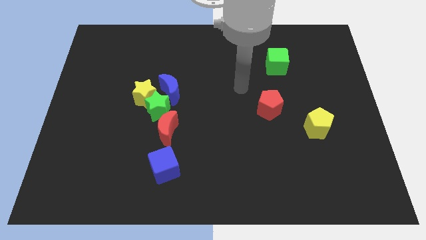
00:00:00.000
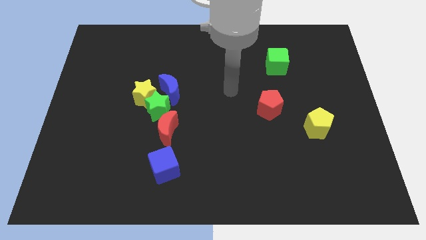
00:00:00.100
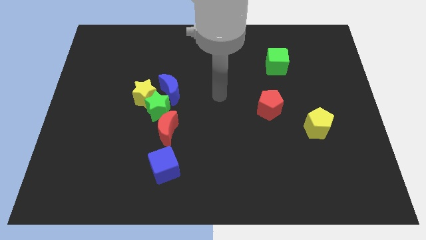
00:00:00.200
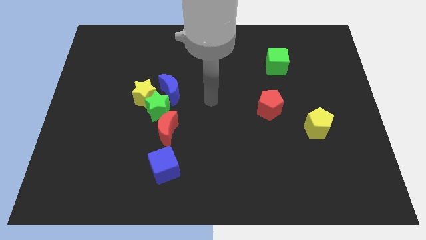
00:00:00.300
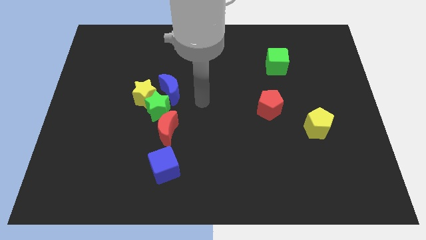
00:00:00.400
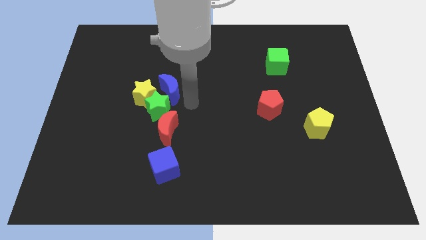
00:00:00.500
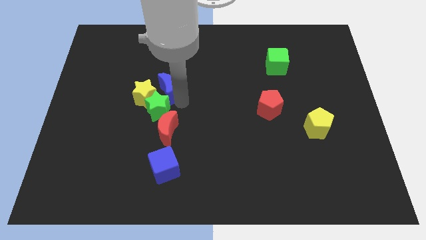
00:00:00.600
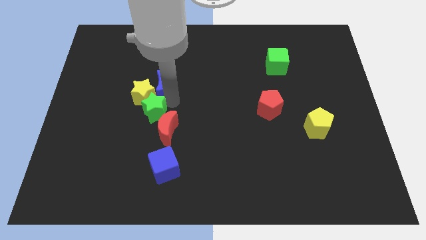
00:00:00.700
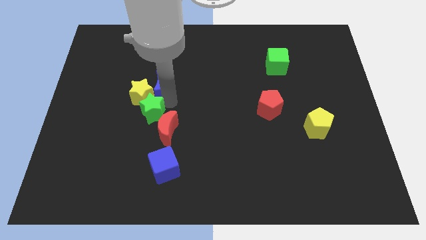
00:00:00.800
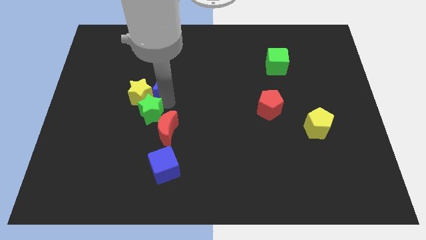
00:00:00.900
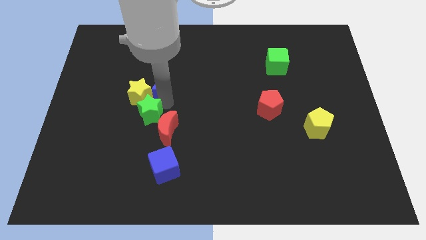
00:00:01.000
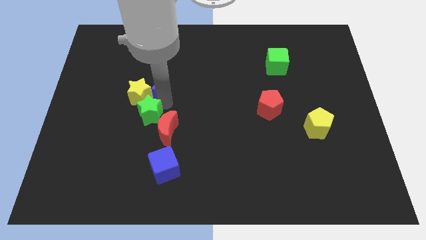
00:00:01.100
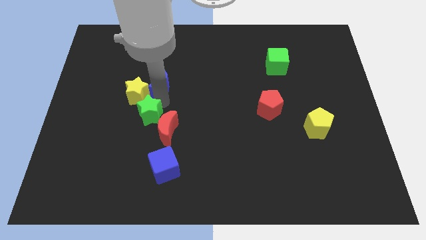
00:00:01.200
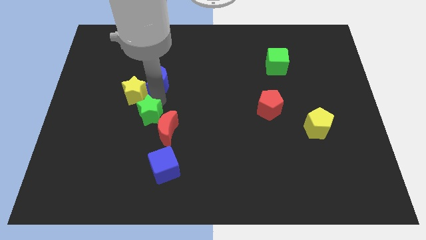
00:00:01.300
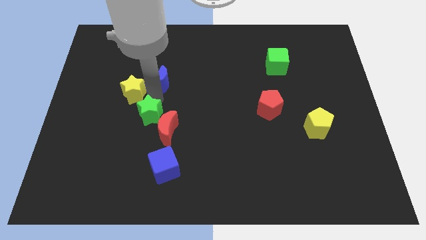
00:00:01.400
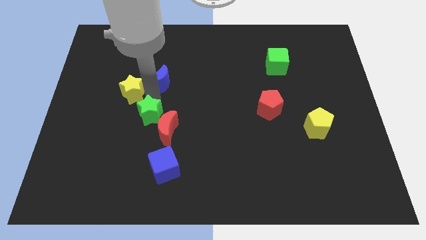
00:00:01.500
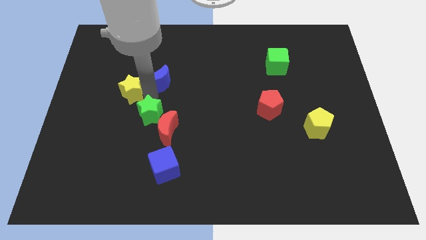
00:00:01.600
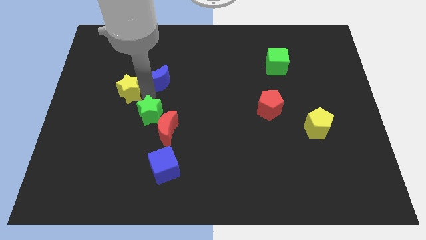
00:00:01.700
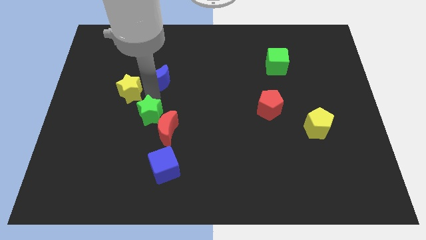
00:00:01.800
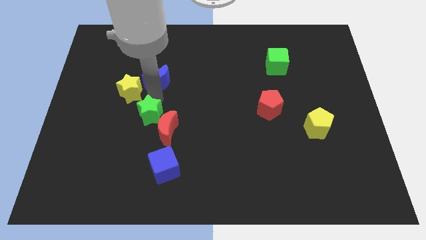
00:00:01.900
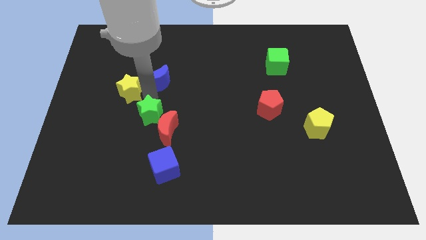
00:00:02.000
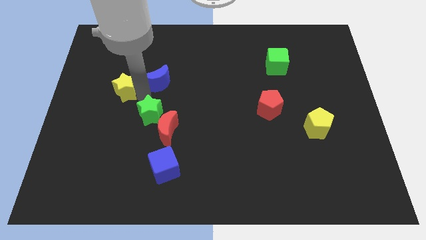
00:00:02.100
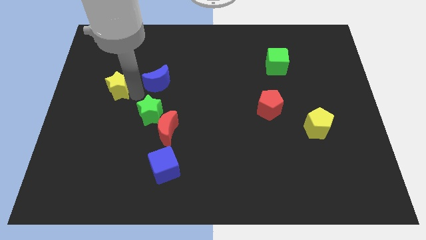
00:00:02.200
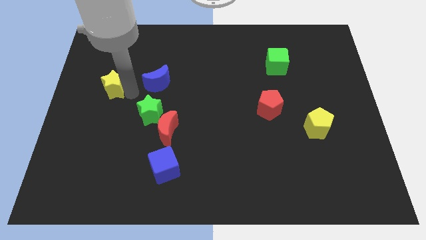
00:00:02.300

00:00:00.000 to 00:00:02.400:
move the yellow star away from the green star and blue moon

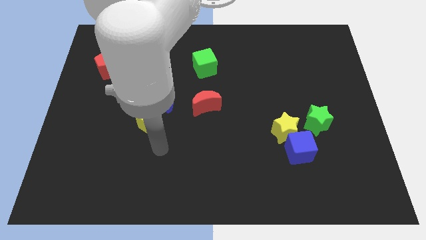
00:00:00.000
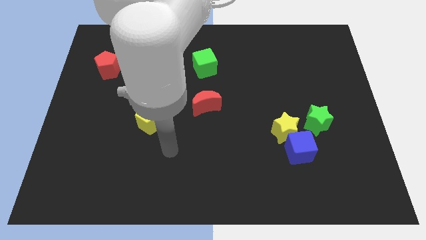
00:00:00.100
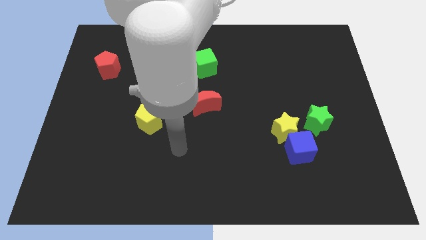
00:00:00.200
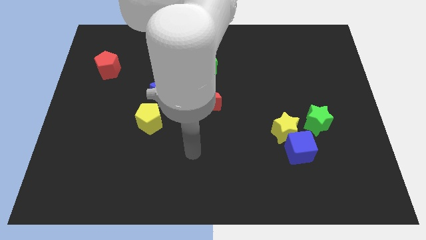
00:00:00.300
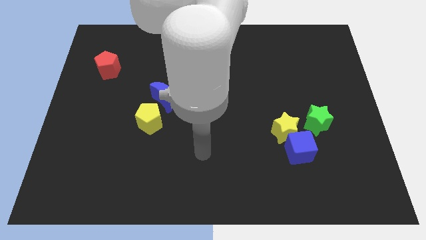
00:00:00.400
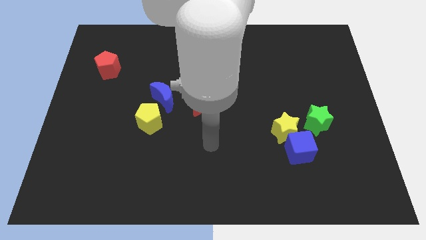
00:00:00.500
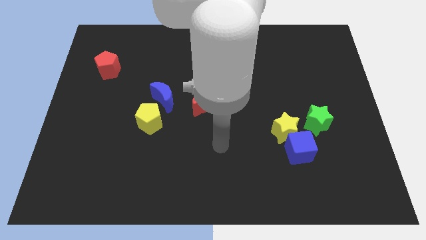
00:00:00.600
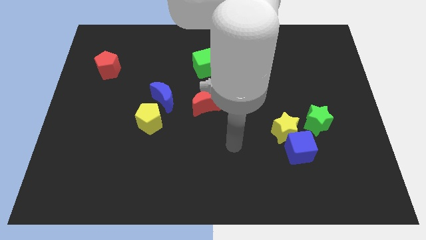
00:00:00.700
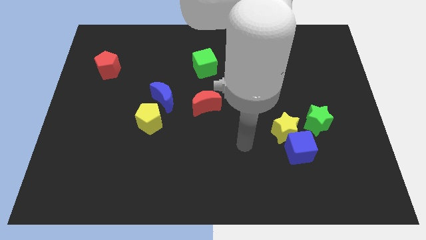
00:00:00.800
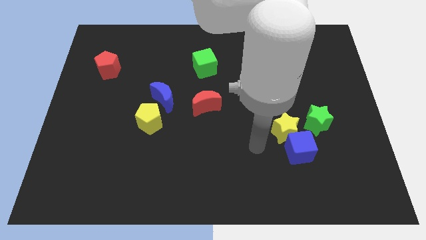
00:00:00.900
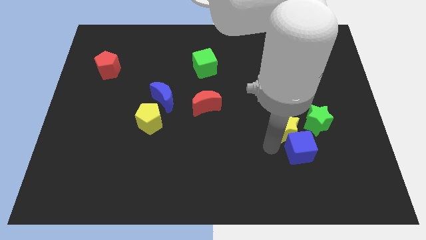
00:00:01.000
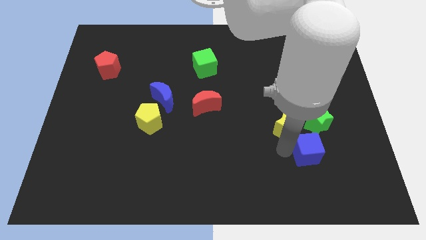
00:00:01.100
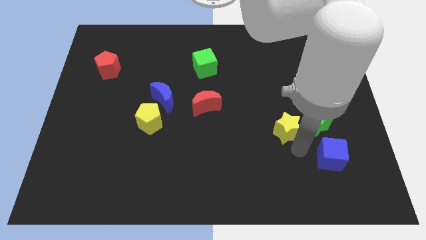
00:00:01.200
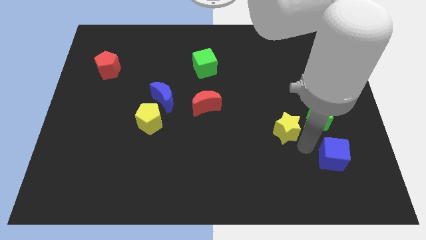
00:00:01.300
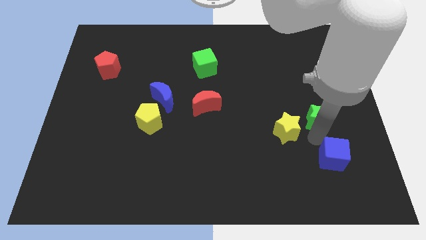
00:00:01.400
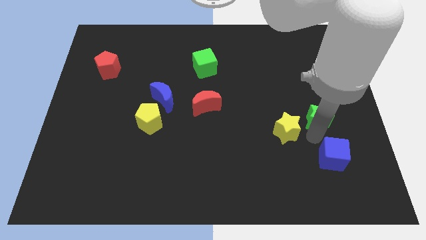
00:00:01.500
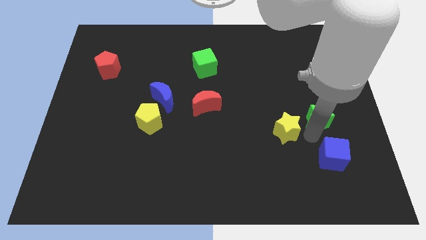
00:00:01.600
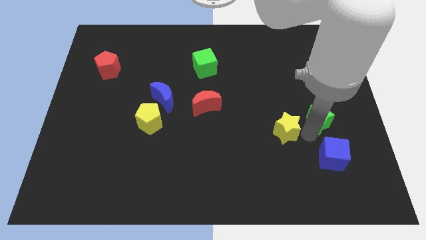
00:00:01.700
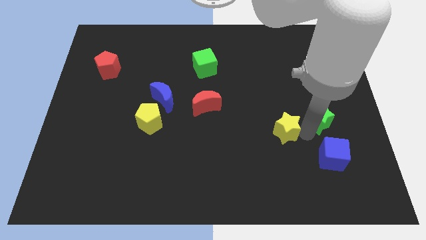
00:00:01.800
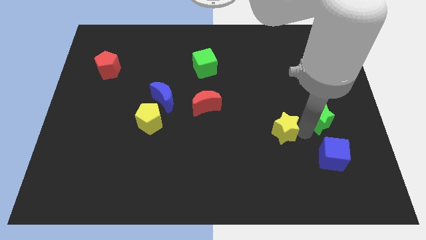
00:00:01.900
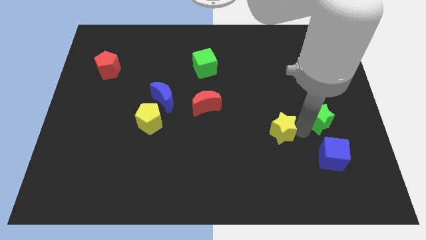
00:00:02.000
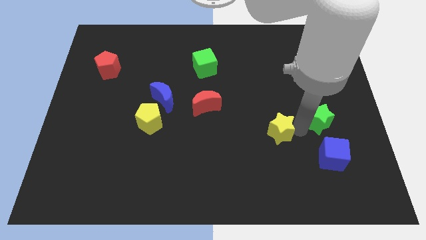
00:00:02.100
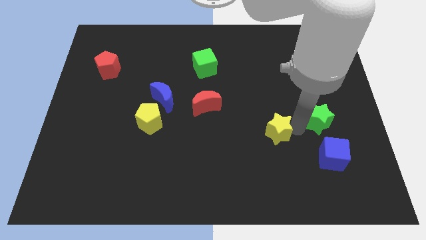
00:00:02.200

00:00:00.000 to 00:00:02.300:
pull the yellow star apart from the blue cube and green star

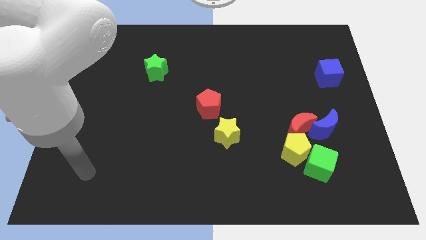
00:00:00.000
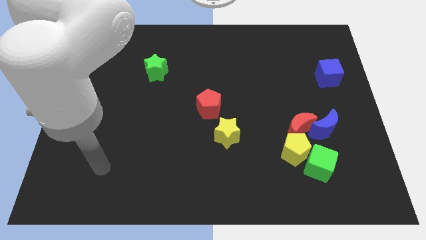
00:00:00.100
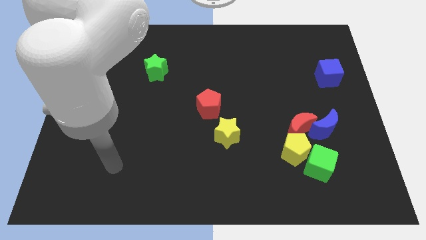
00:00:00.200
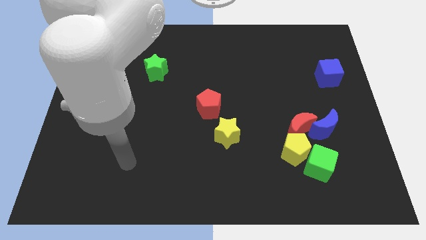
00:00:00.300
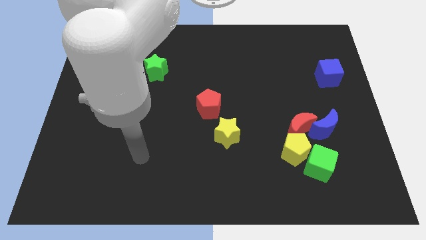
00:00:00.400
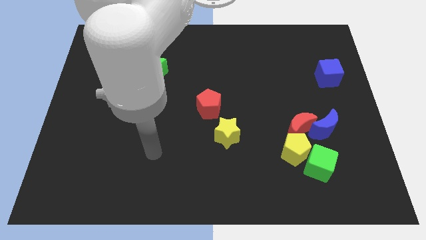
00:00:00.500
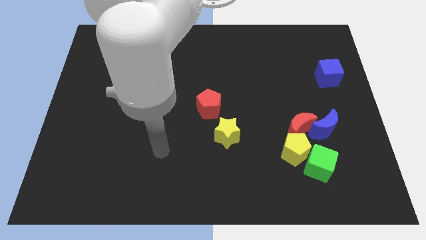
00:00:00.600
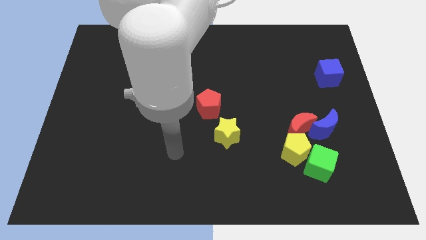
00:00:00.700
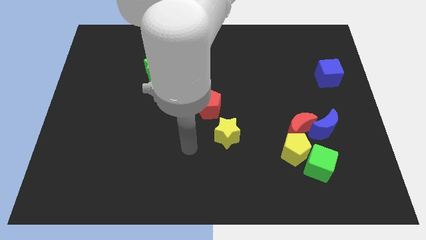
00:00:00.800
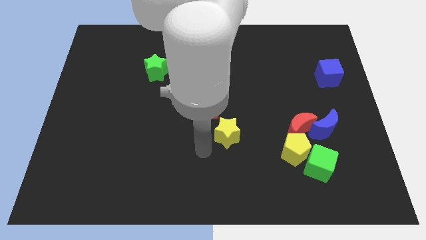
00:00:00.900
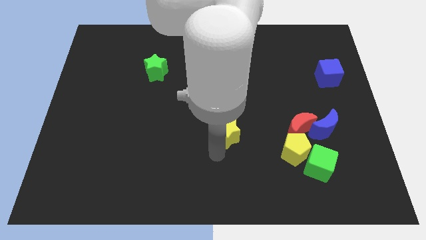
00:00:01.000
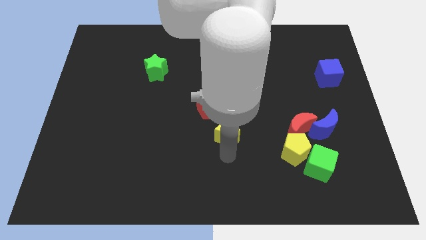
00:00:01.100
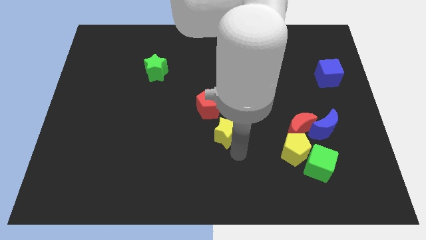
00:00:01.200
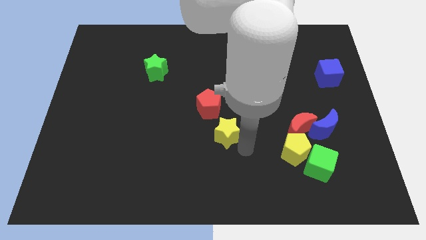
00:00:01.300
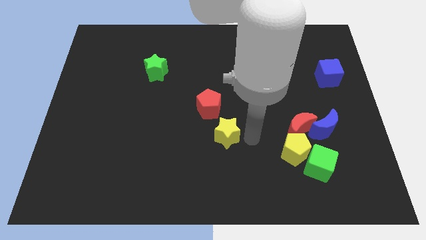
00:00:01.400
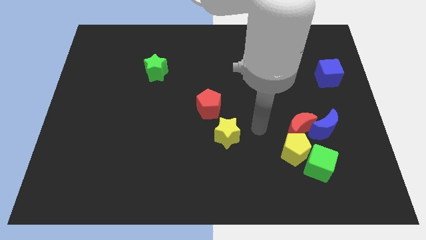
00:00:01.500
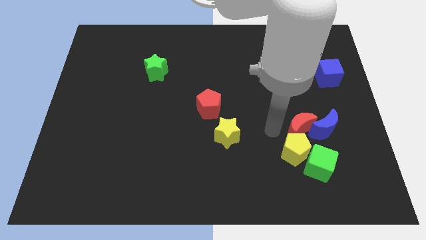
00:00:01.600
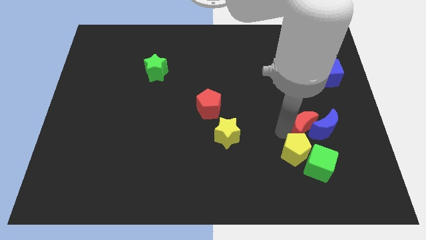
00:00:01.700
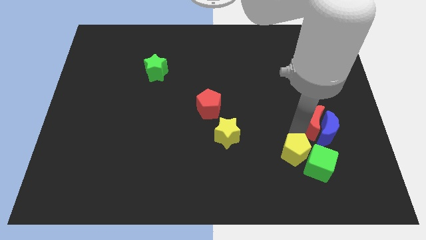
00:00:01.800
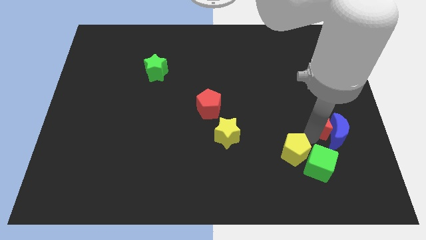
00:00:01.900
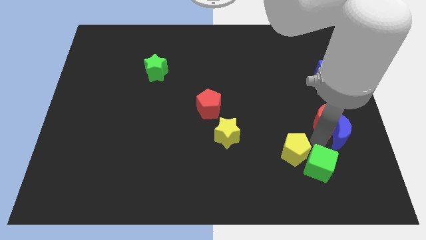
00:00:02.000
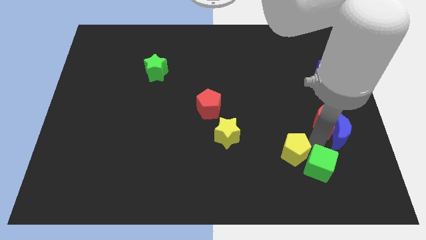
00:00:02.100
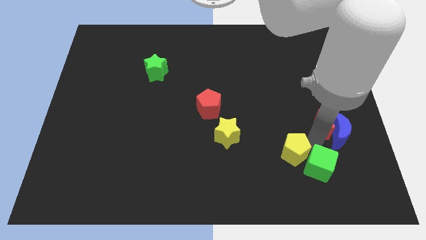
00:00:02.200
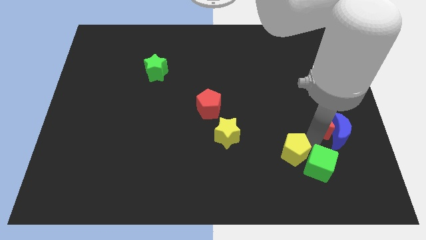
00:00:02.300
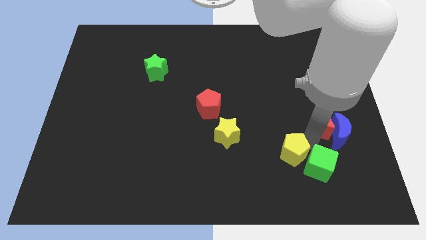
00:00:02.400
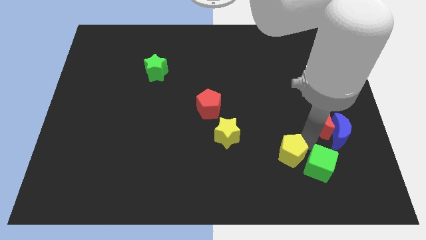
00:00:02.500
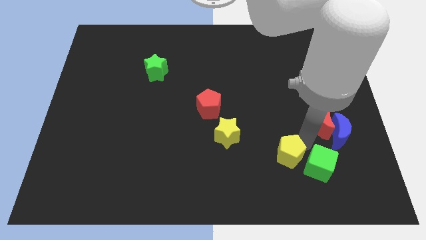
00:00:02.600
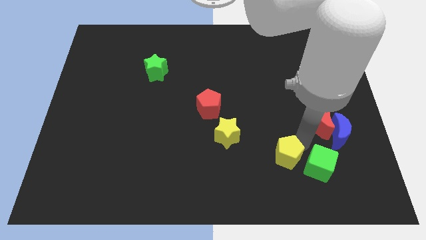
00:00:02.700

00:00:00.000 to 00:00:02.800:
pull the yellow pentagon apart from the green cube, red moon, and blue moon

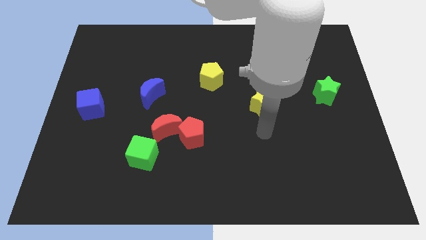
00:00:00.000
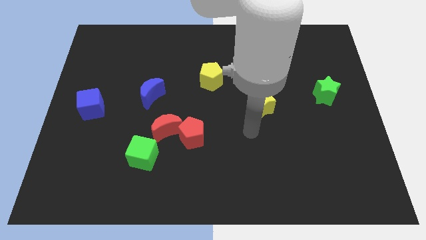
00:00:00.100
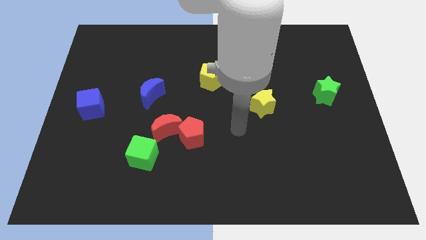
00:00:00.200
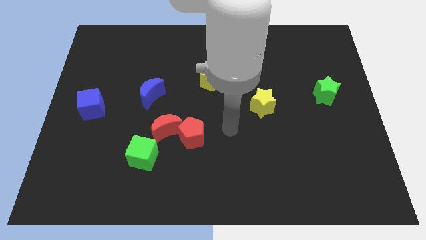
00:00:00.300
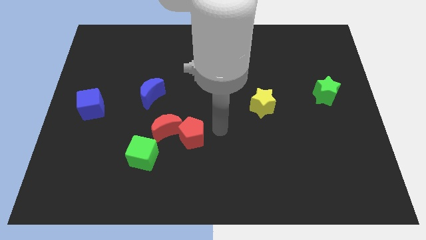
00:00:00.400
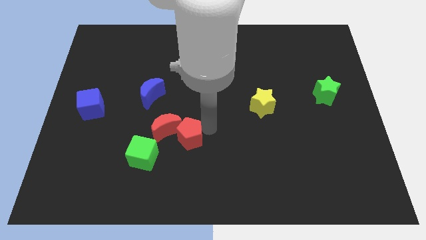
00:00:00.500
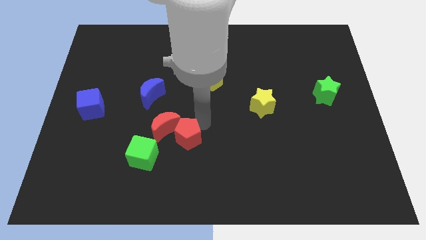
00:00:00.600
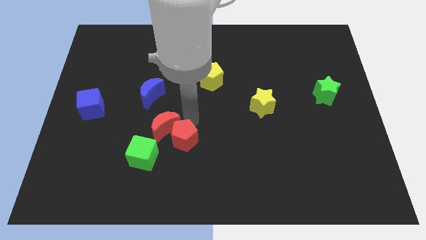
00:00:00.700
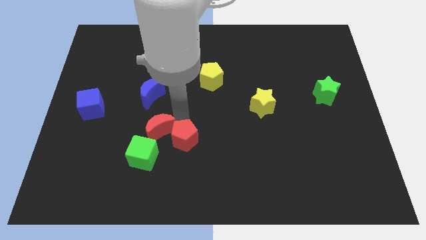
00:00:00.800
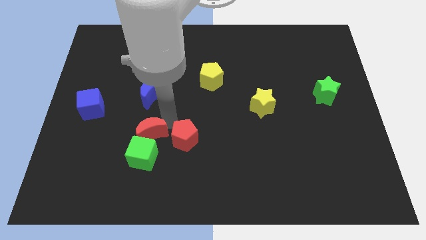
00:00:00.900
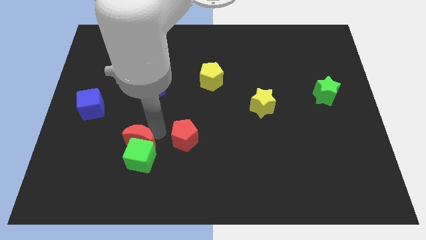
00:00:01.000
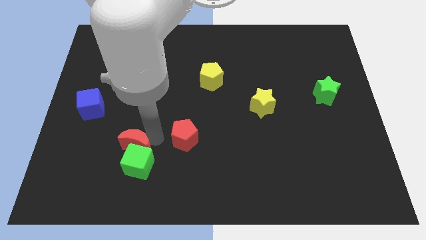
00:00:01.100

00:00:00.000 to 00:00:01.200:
pull the red pentagon apart from the red moon

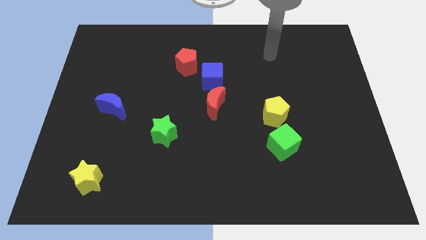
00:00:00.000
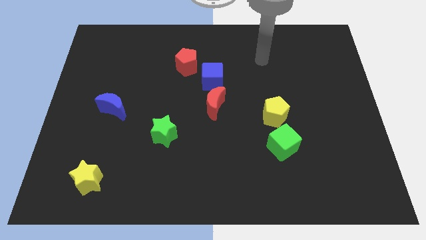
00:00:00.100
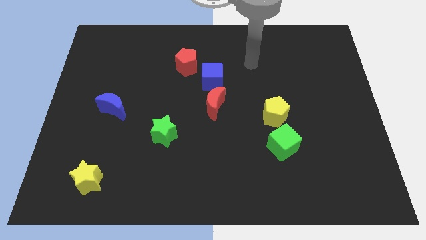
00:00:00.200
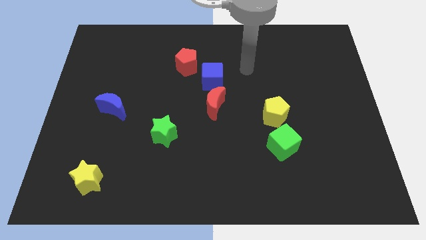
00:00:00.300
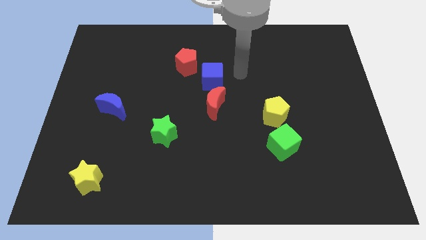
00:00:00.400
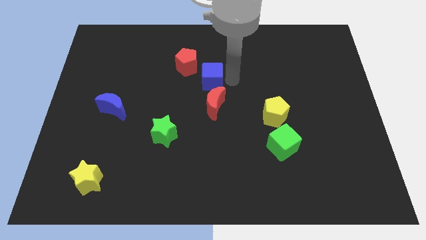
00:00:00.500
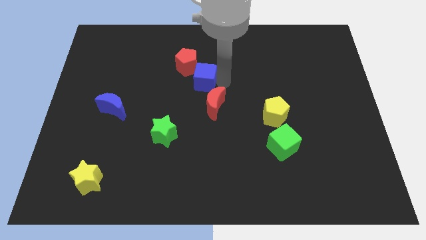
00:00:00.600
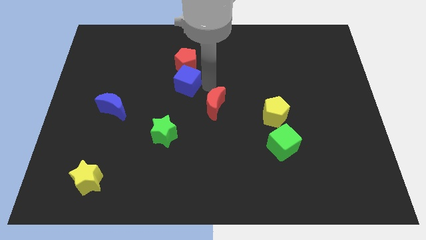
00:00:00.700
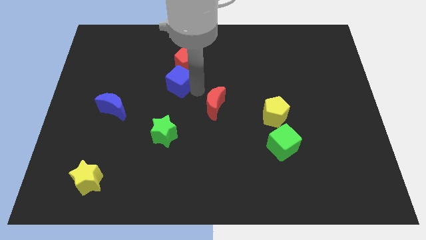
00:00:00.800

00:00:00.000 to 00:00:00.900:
move the red moon away from the blue cube
